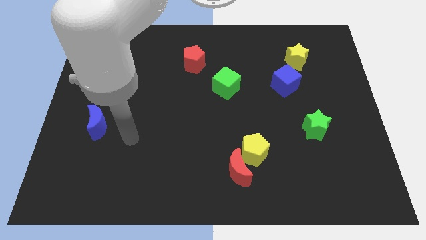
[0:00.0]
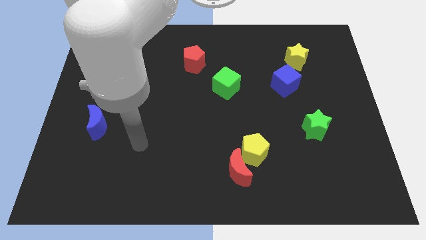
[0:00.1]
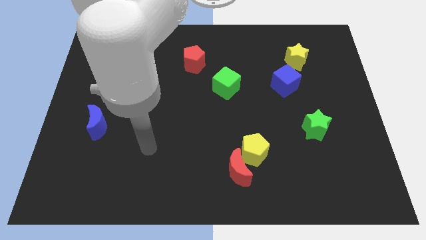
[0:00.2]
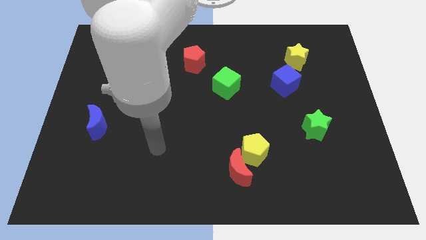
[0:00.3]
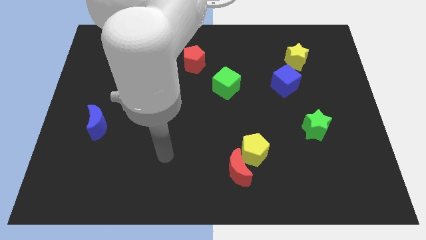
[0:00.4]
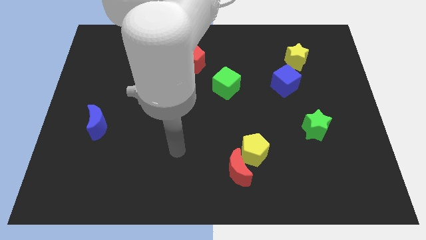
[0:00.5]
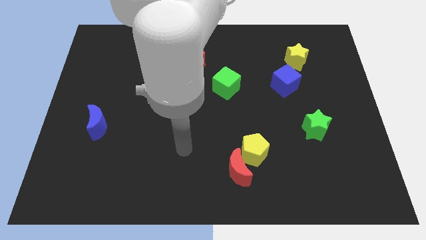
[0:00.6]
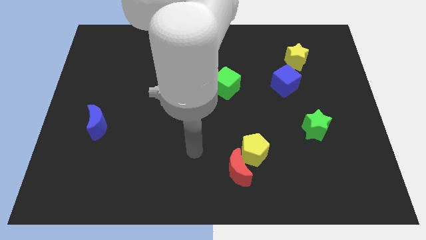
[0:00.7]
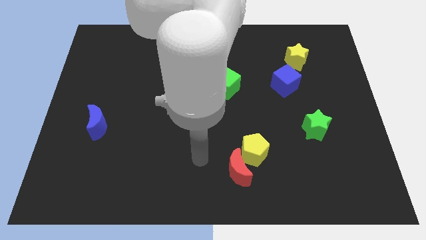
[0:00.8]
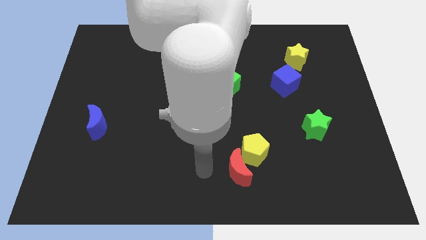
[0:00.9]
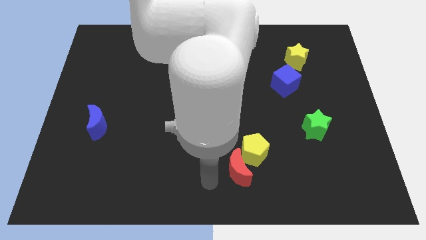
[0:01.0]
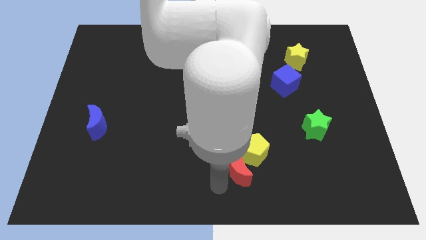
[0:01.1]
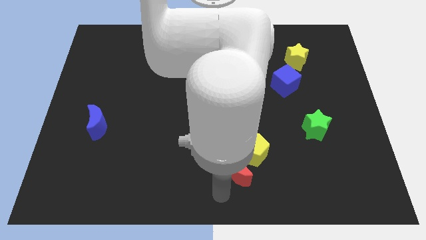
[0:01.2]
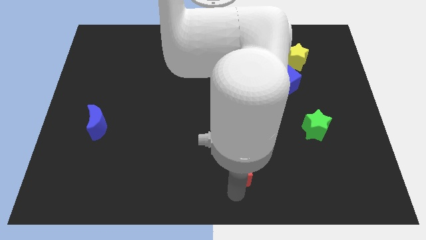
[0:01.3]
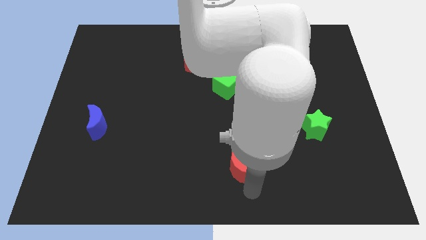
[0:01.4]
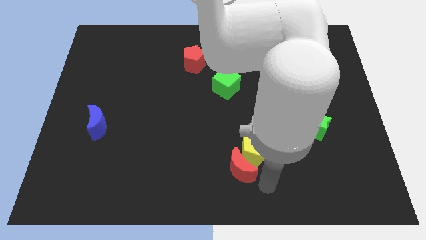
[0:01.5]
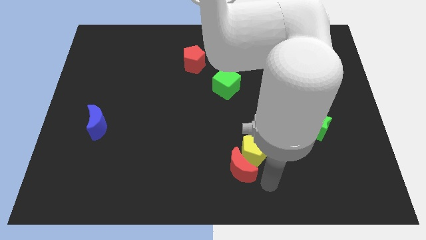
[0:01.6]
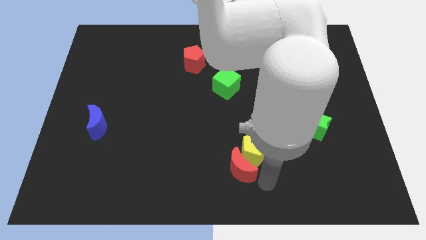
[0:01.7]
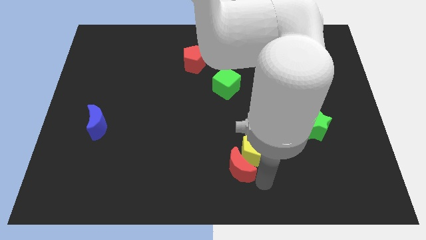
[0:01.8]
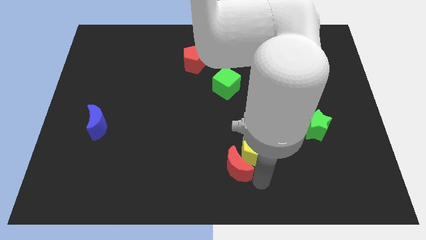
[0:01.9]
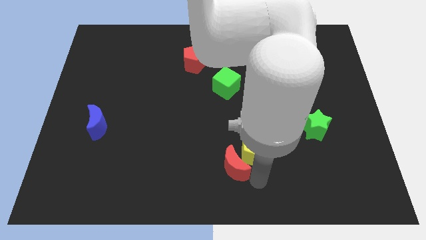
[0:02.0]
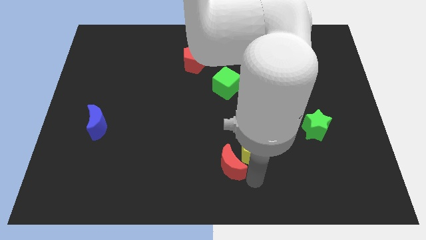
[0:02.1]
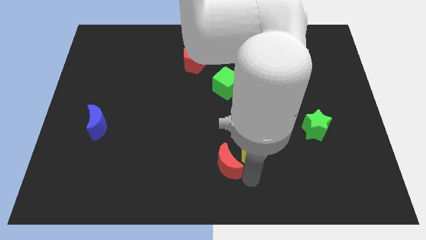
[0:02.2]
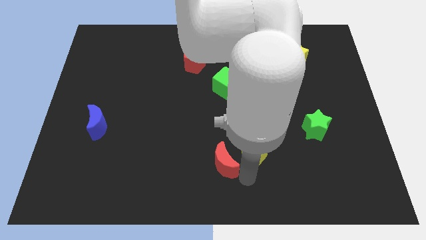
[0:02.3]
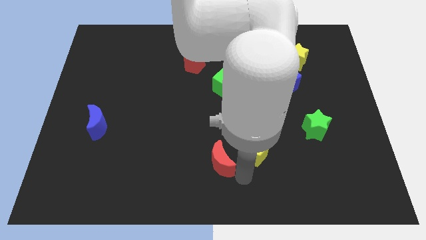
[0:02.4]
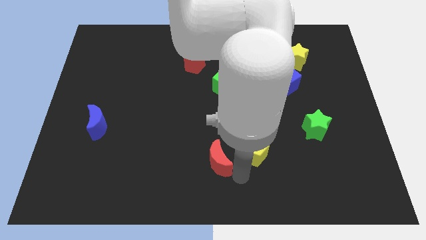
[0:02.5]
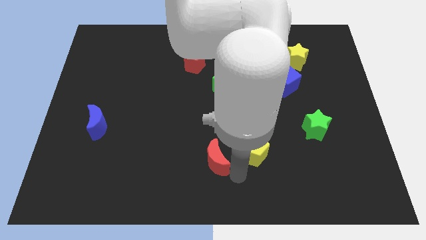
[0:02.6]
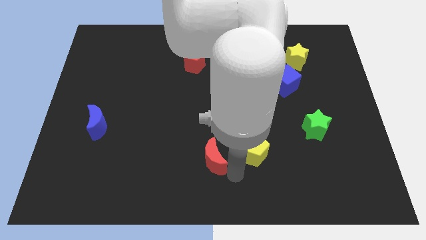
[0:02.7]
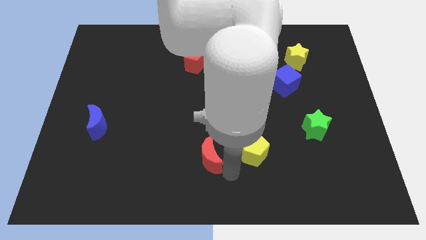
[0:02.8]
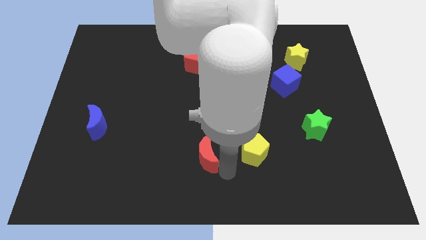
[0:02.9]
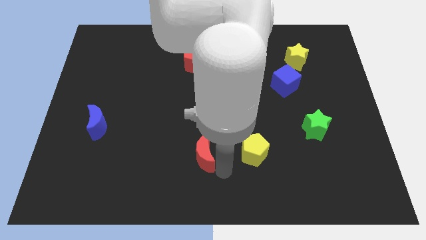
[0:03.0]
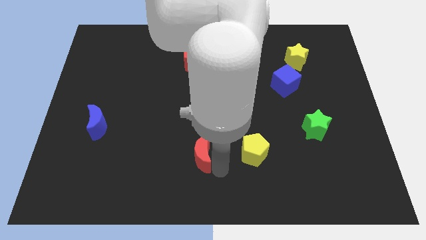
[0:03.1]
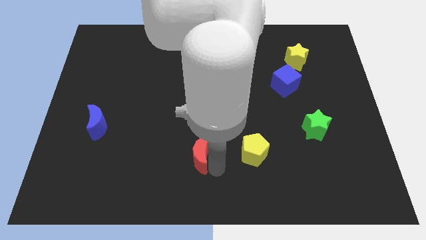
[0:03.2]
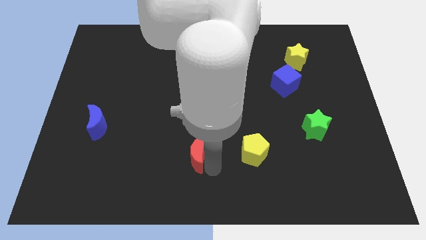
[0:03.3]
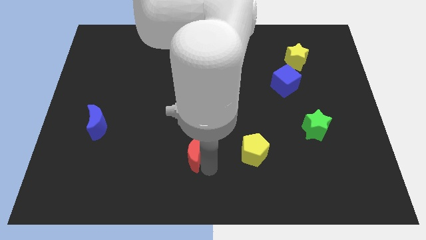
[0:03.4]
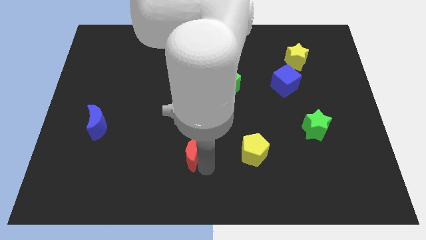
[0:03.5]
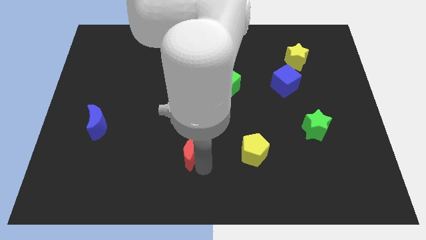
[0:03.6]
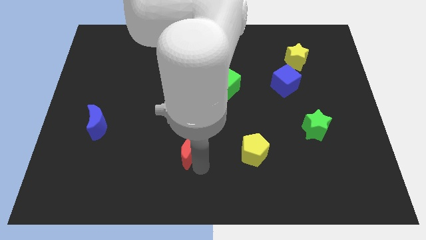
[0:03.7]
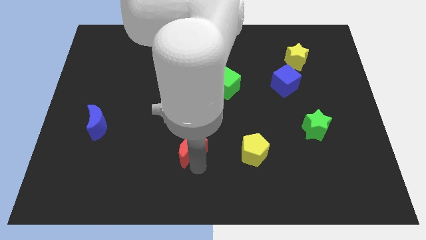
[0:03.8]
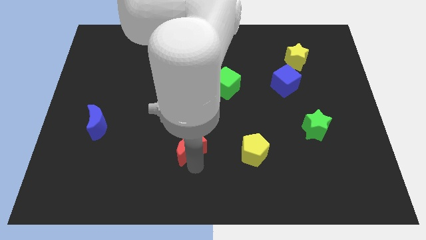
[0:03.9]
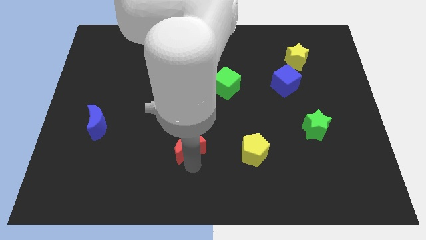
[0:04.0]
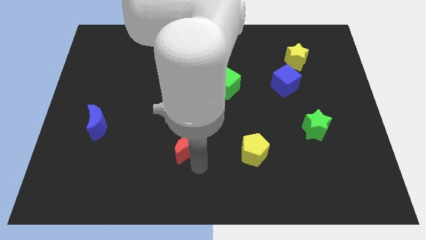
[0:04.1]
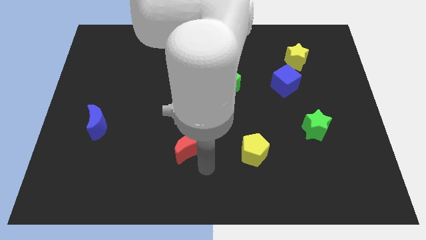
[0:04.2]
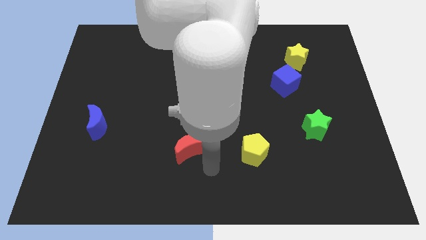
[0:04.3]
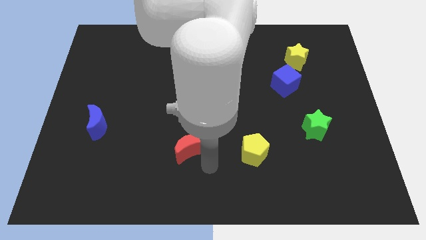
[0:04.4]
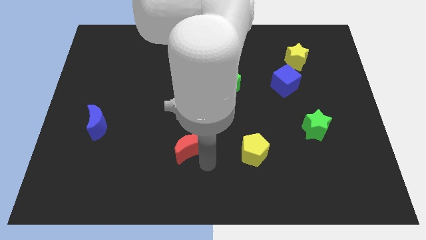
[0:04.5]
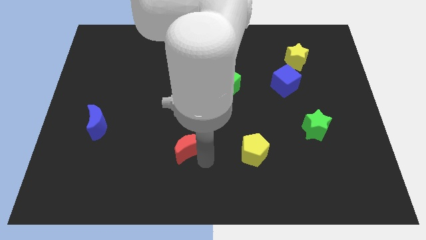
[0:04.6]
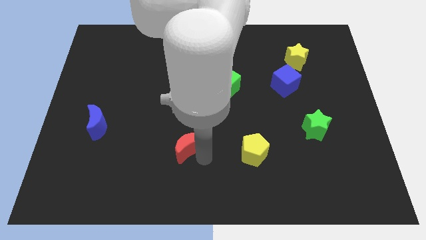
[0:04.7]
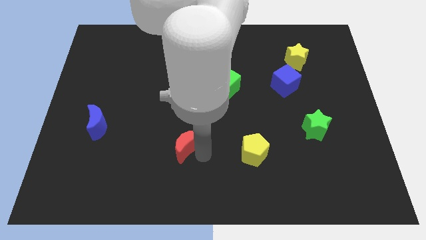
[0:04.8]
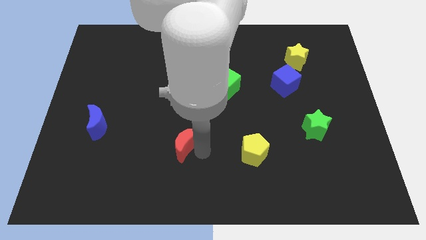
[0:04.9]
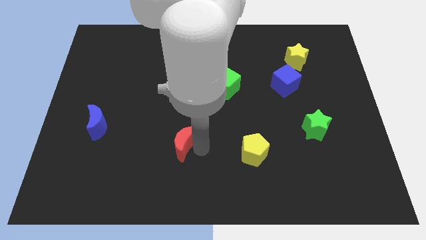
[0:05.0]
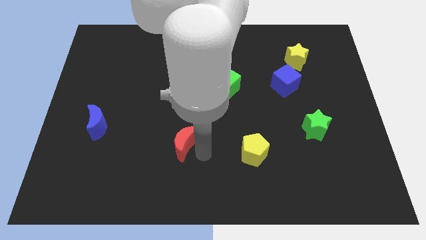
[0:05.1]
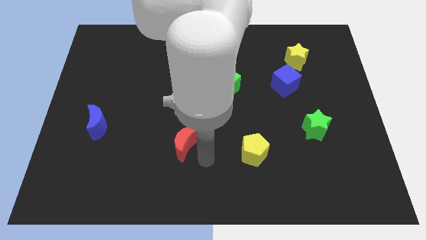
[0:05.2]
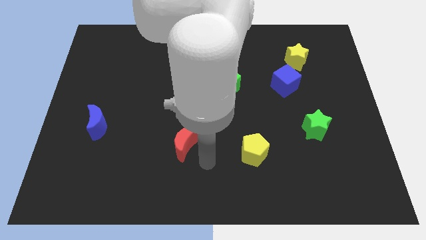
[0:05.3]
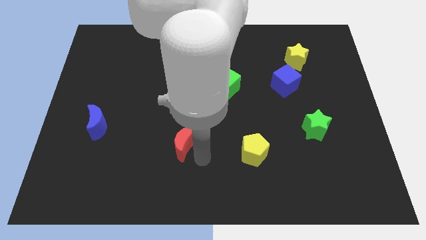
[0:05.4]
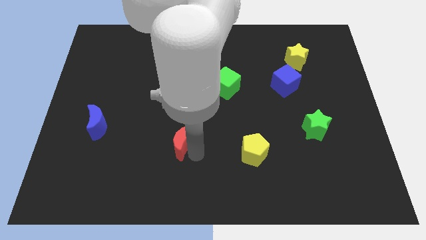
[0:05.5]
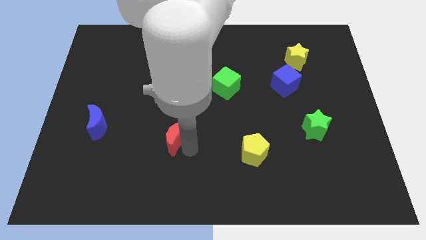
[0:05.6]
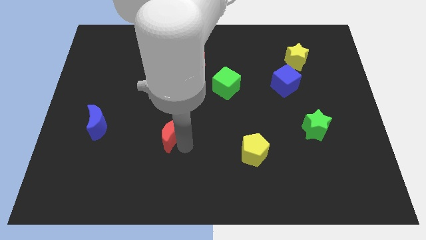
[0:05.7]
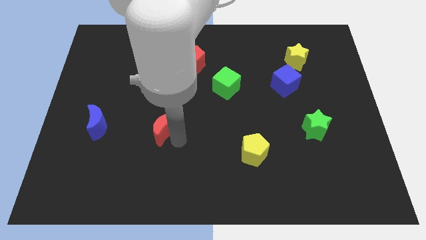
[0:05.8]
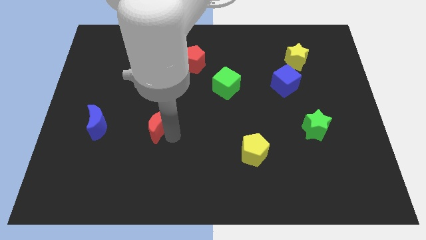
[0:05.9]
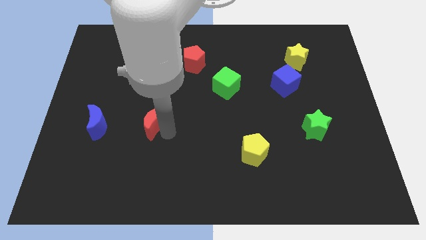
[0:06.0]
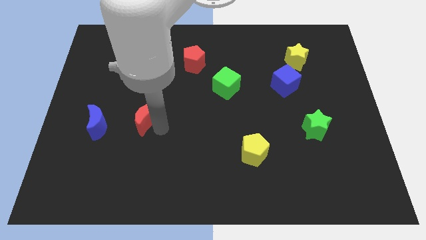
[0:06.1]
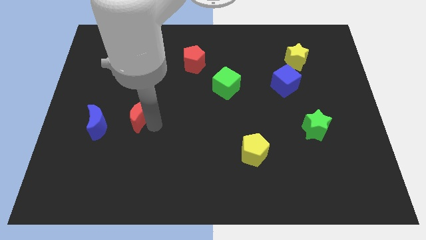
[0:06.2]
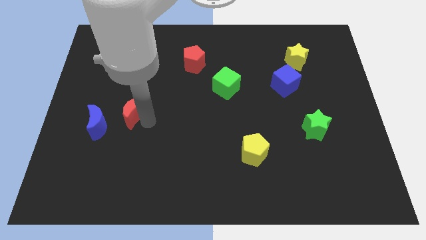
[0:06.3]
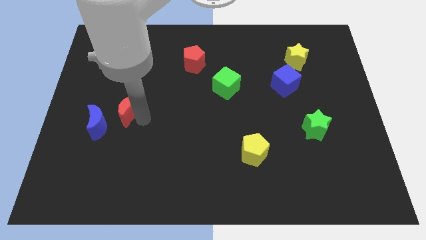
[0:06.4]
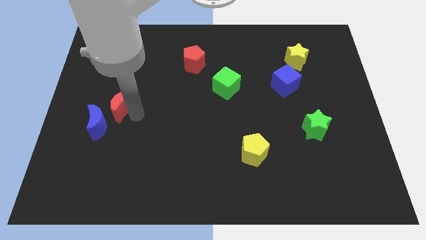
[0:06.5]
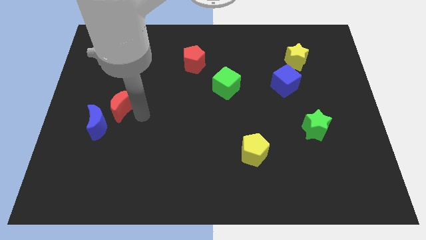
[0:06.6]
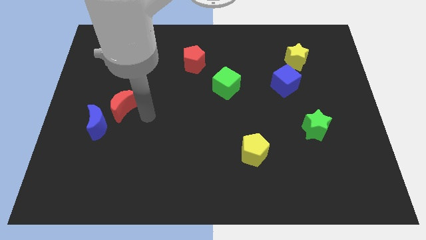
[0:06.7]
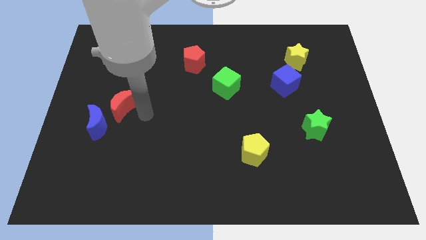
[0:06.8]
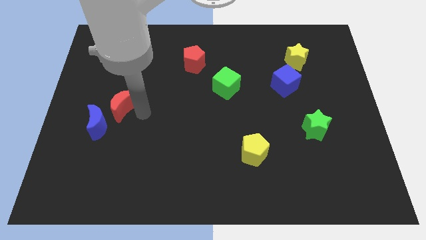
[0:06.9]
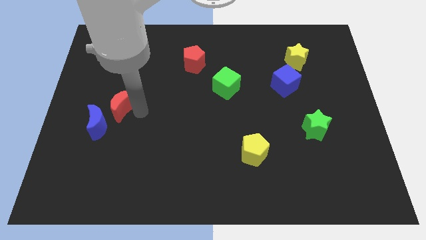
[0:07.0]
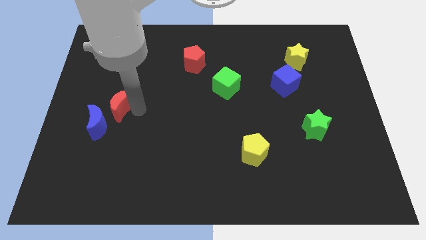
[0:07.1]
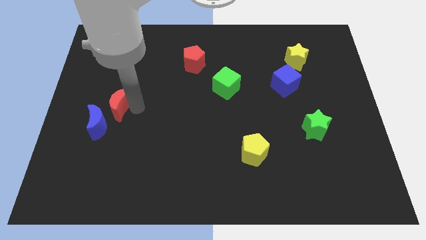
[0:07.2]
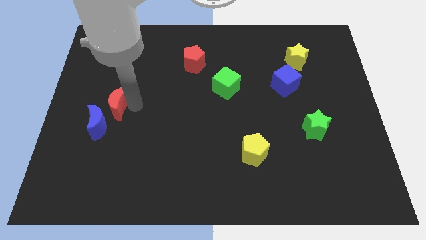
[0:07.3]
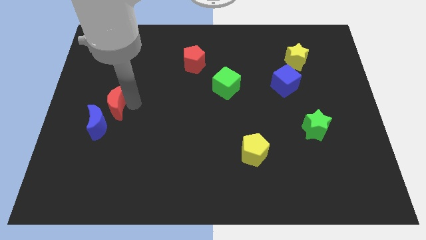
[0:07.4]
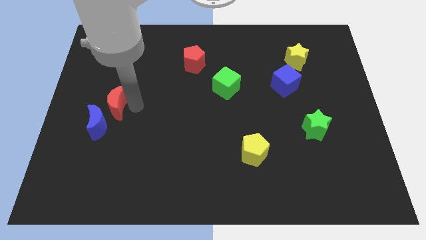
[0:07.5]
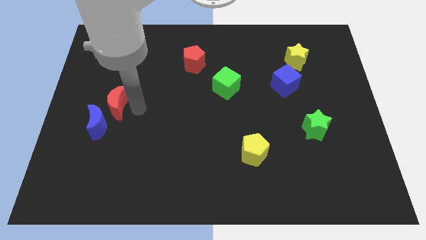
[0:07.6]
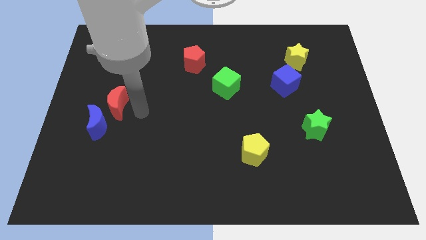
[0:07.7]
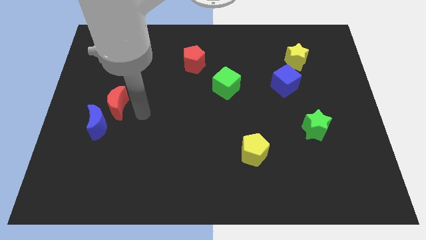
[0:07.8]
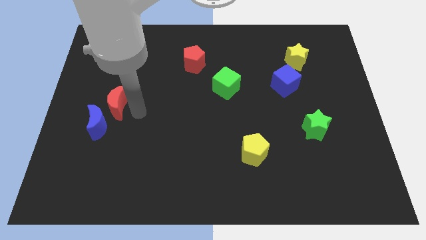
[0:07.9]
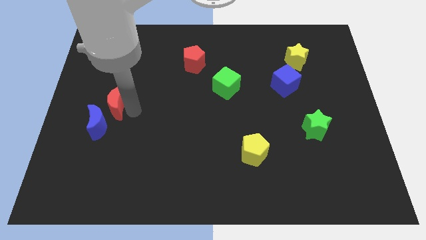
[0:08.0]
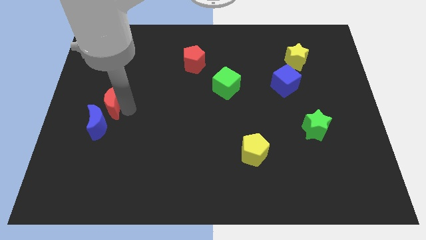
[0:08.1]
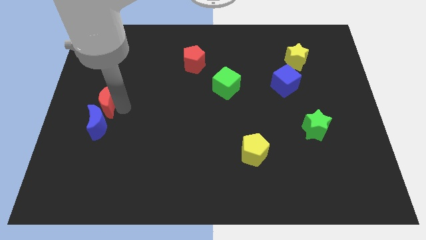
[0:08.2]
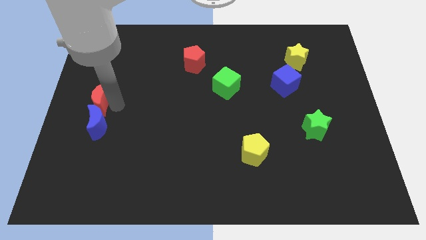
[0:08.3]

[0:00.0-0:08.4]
put the red moon to the left side
